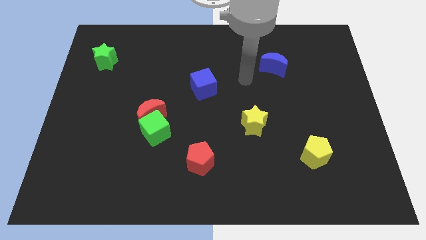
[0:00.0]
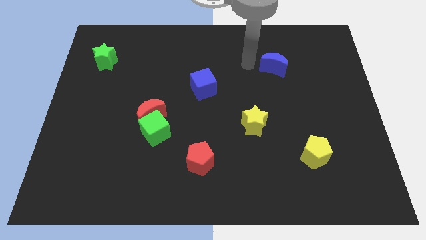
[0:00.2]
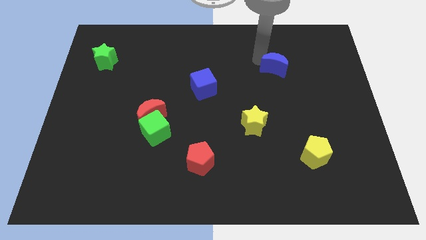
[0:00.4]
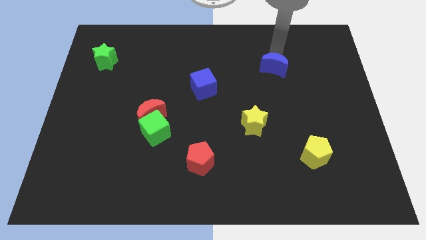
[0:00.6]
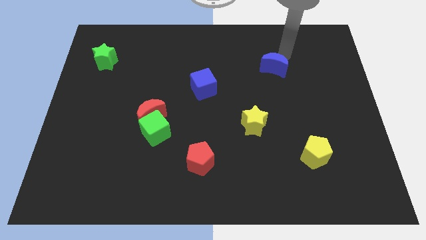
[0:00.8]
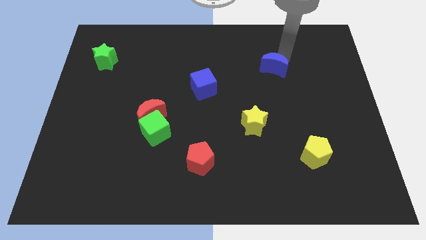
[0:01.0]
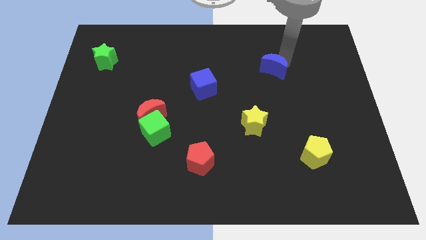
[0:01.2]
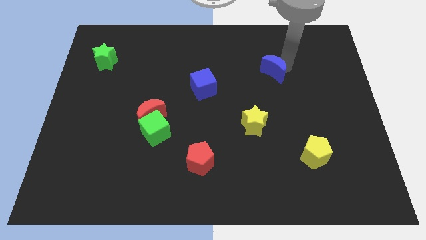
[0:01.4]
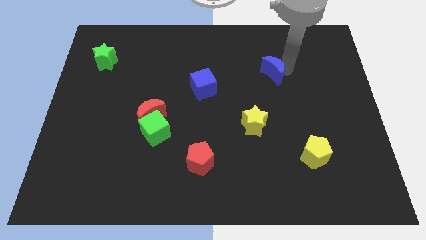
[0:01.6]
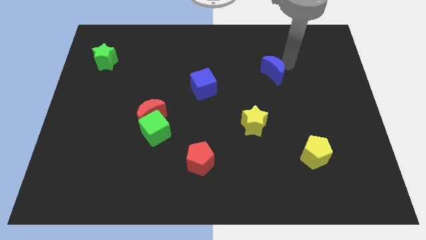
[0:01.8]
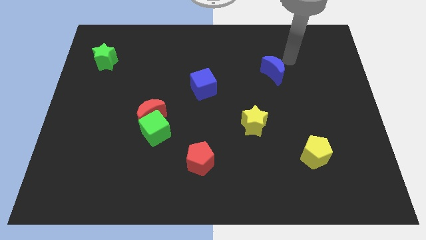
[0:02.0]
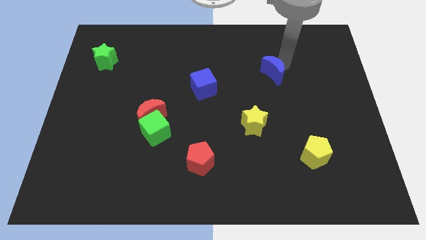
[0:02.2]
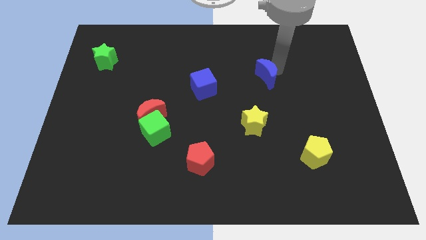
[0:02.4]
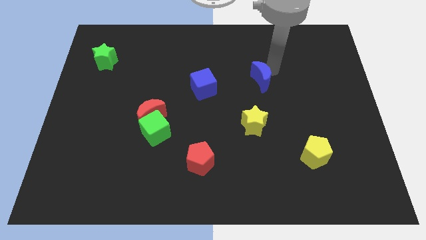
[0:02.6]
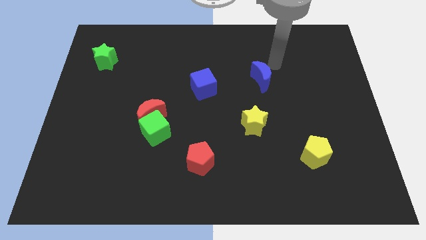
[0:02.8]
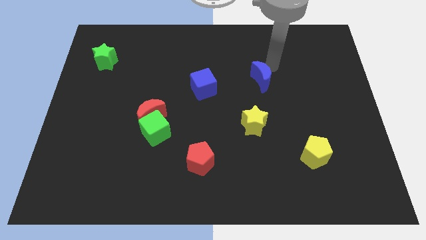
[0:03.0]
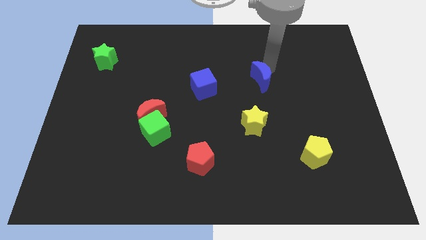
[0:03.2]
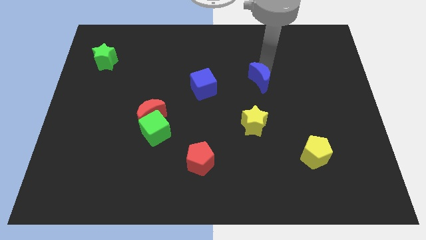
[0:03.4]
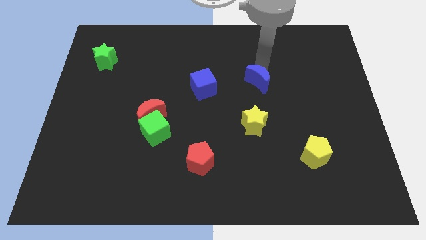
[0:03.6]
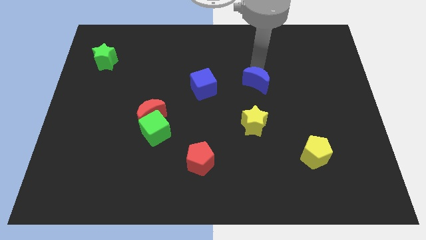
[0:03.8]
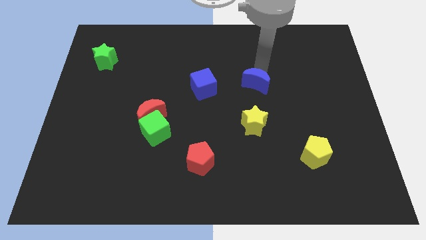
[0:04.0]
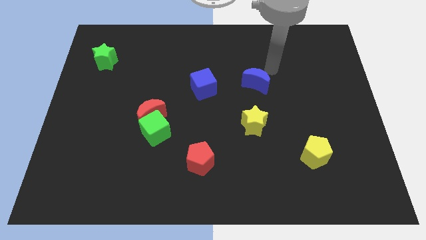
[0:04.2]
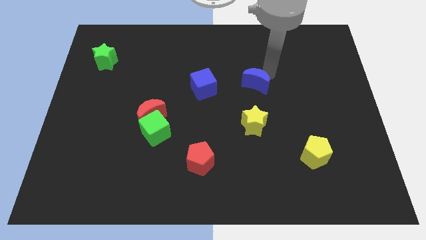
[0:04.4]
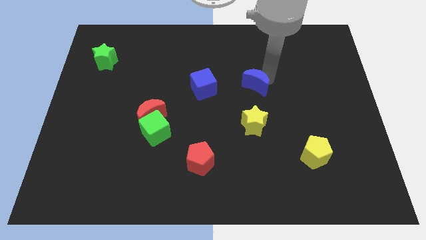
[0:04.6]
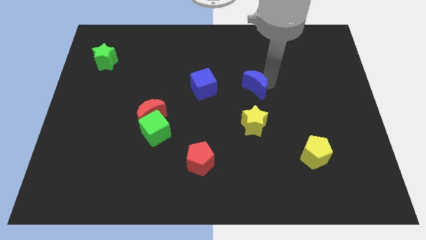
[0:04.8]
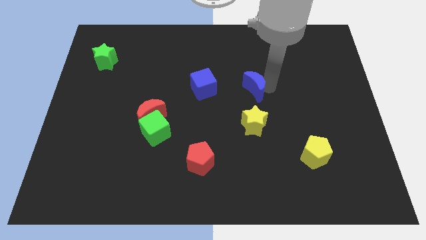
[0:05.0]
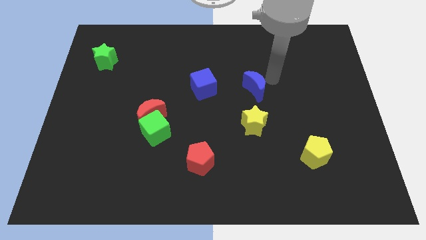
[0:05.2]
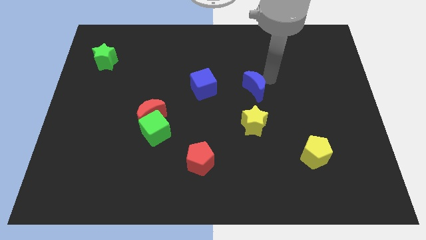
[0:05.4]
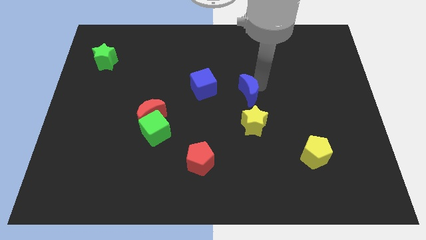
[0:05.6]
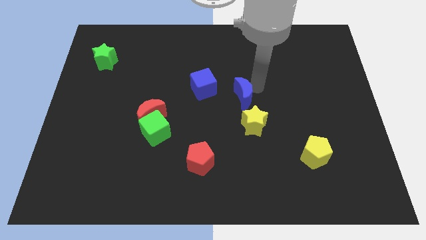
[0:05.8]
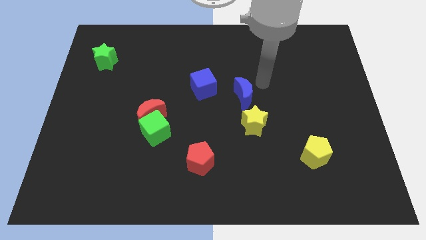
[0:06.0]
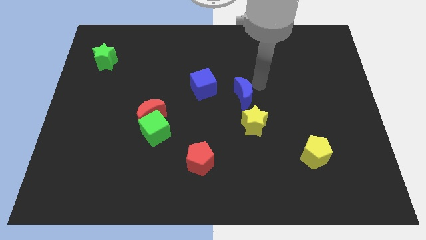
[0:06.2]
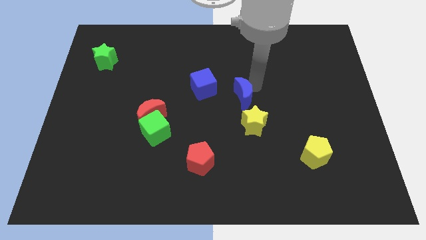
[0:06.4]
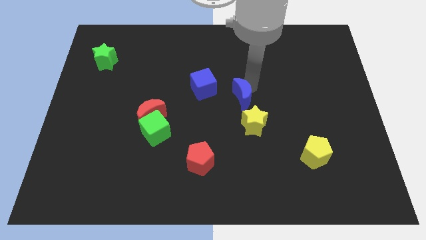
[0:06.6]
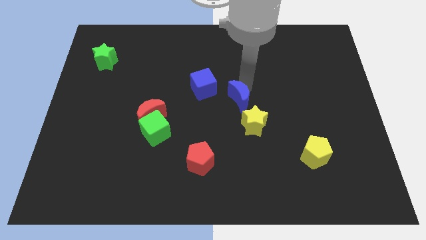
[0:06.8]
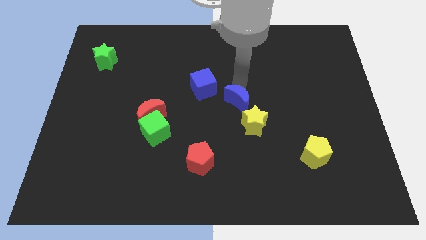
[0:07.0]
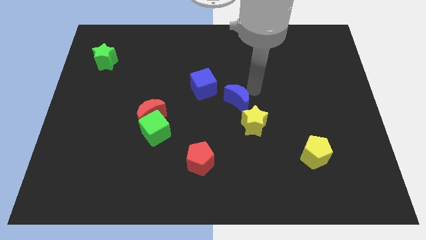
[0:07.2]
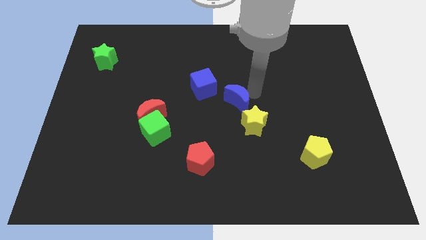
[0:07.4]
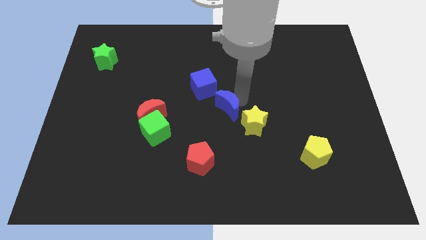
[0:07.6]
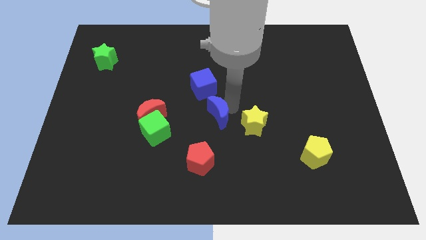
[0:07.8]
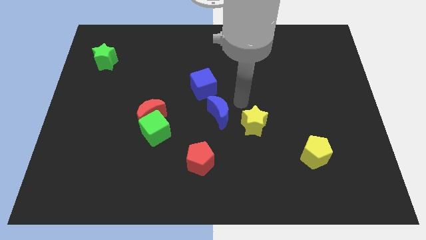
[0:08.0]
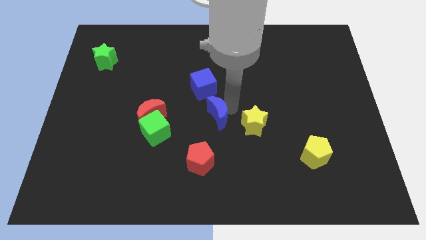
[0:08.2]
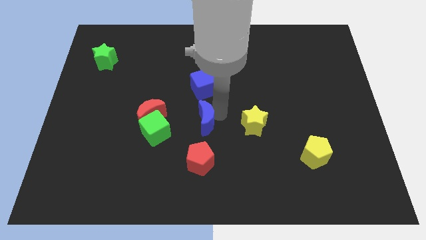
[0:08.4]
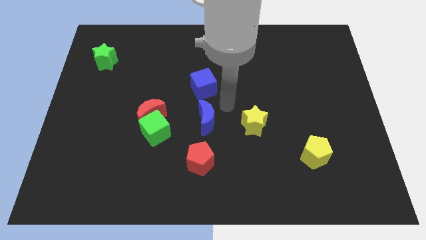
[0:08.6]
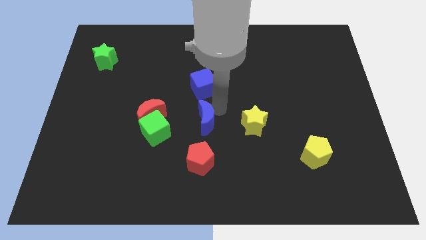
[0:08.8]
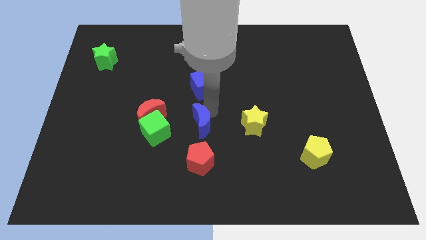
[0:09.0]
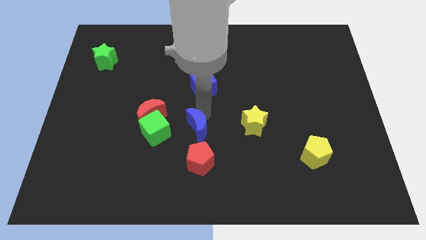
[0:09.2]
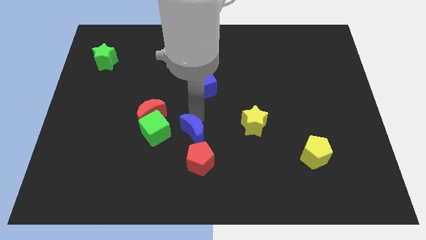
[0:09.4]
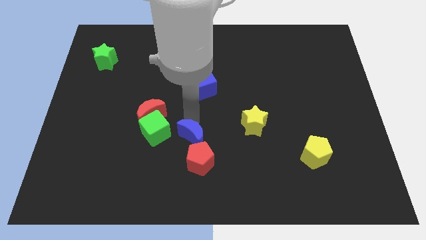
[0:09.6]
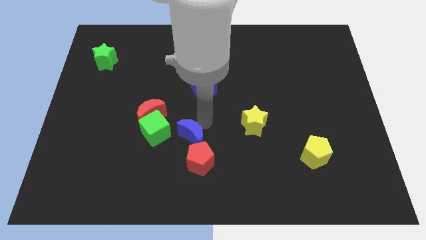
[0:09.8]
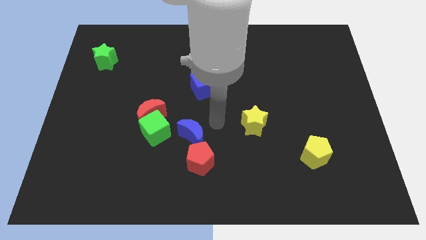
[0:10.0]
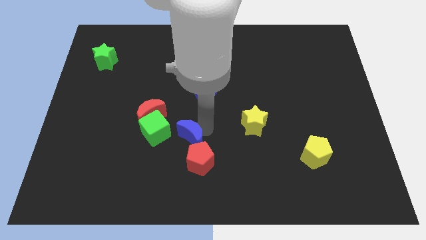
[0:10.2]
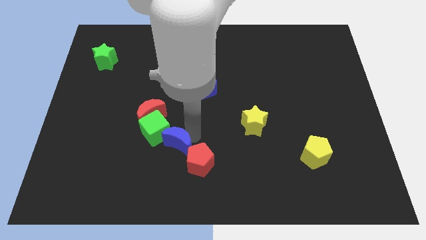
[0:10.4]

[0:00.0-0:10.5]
move the blue moon to the left side of the red pentagon

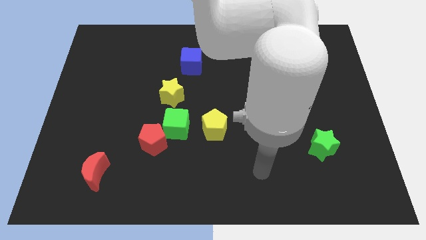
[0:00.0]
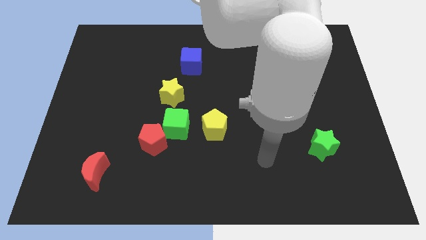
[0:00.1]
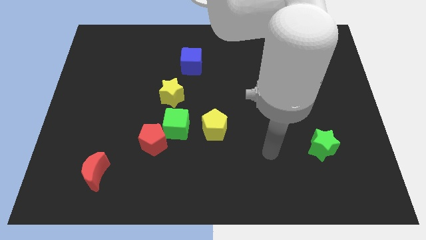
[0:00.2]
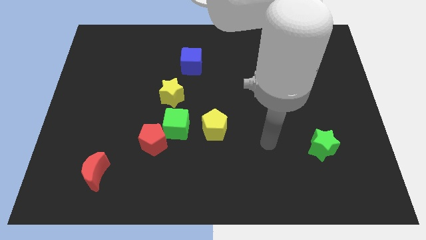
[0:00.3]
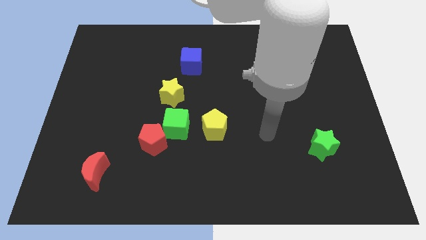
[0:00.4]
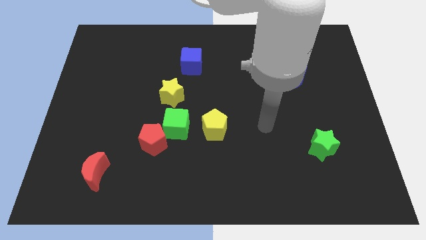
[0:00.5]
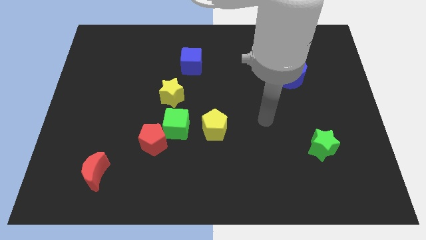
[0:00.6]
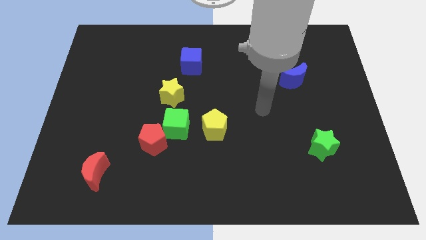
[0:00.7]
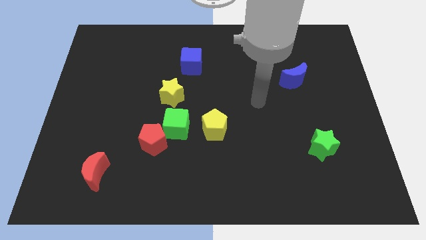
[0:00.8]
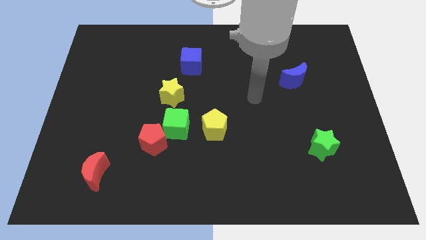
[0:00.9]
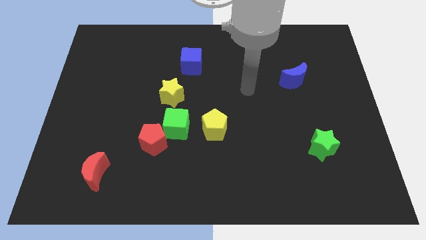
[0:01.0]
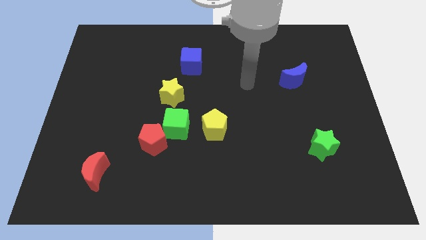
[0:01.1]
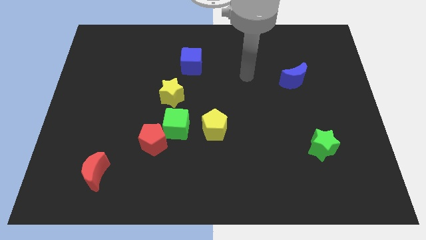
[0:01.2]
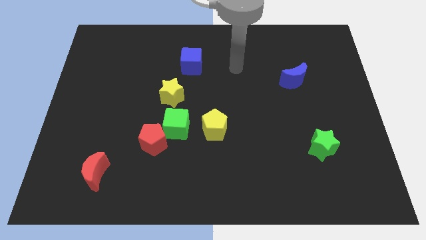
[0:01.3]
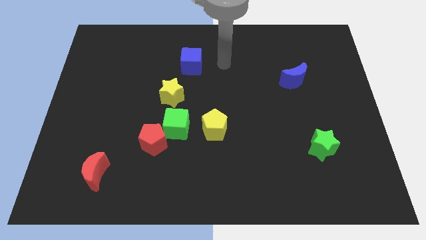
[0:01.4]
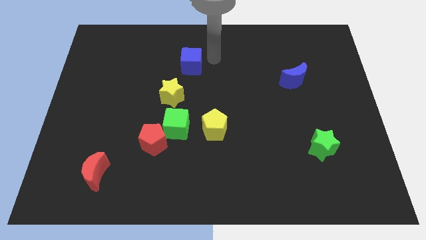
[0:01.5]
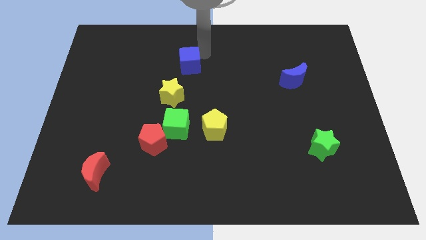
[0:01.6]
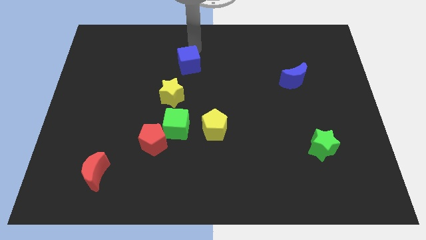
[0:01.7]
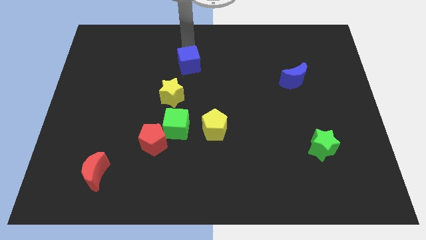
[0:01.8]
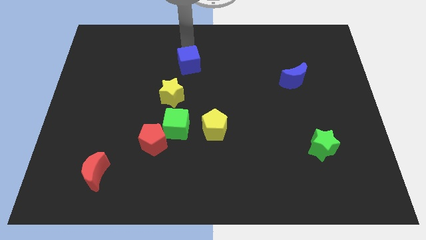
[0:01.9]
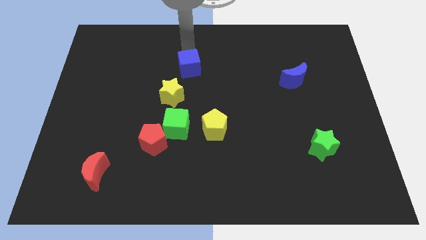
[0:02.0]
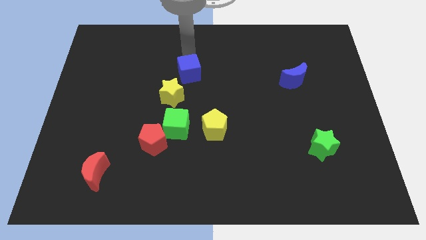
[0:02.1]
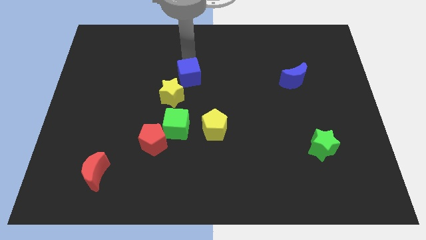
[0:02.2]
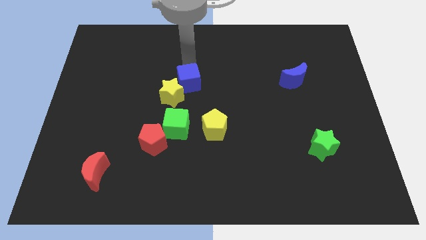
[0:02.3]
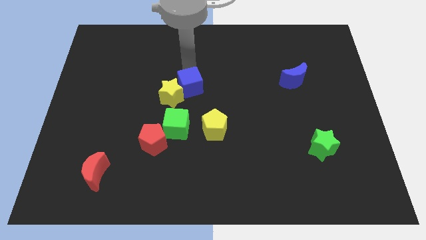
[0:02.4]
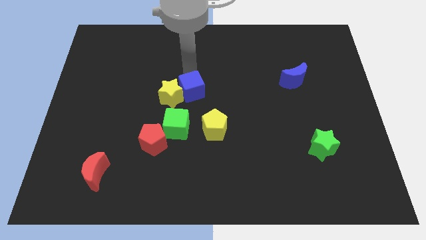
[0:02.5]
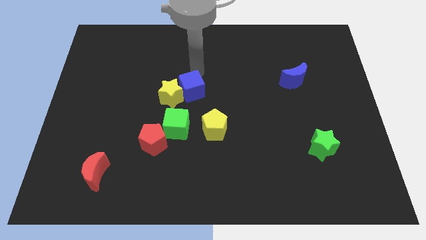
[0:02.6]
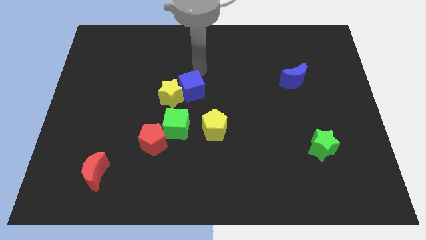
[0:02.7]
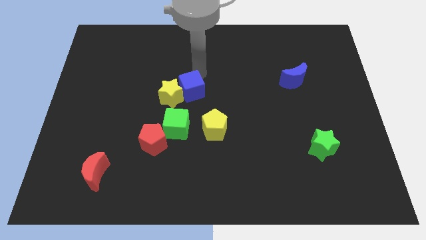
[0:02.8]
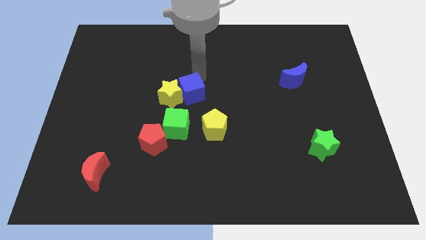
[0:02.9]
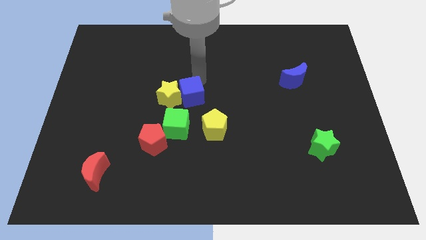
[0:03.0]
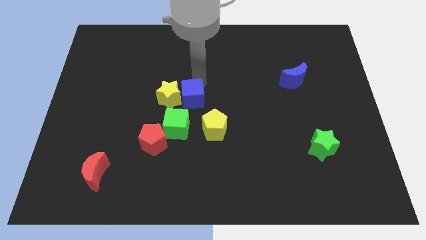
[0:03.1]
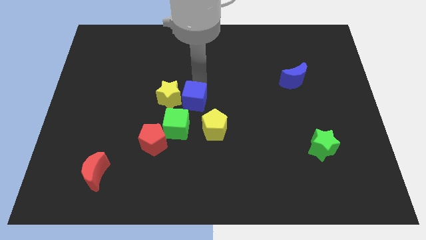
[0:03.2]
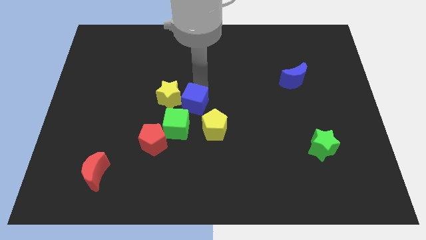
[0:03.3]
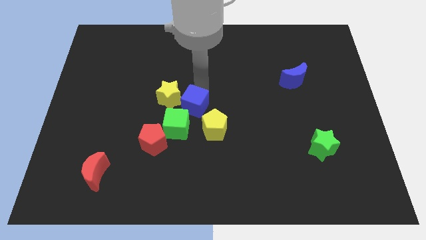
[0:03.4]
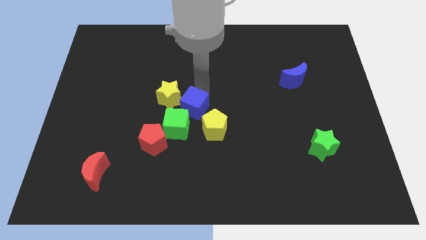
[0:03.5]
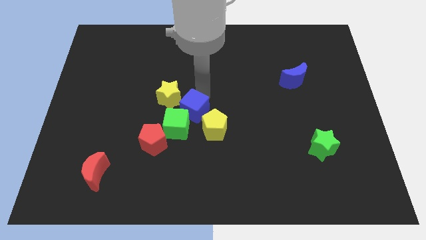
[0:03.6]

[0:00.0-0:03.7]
move the blue cube to the top right side of the red pentagon
